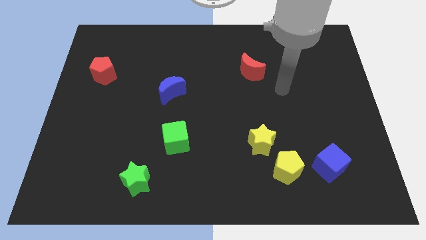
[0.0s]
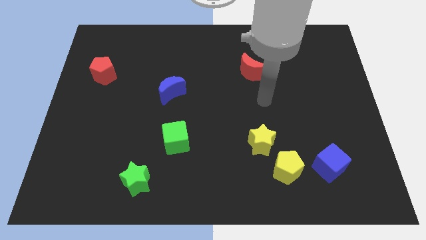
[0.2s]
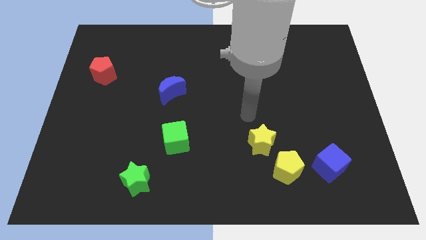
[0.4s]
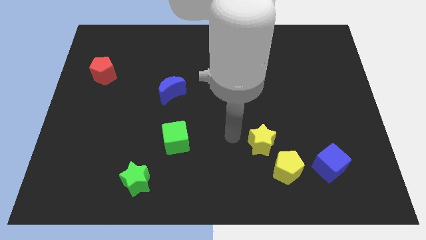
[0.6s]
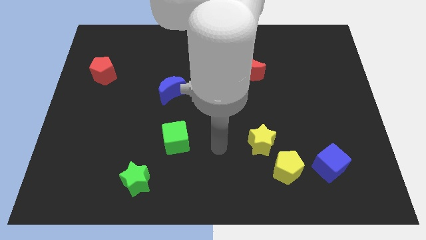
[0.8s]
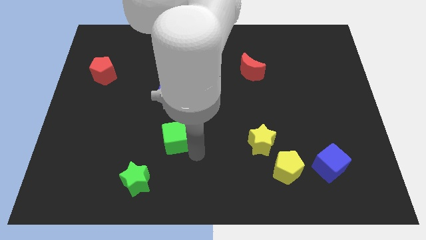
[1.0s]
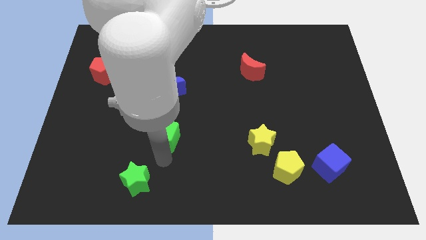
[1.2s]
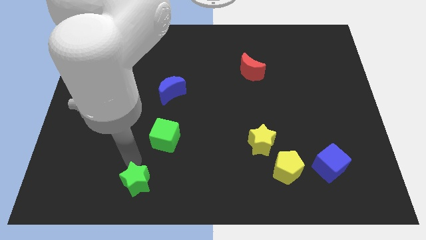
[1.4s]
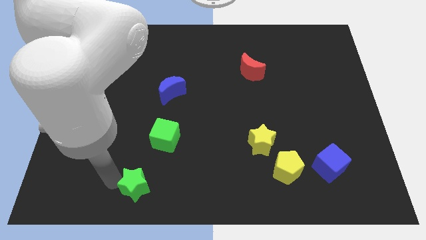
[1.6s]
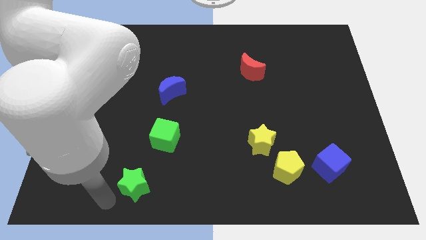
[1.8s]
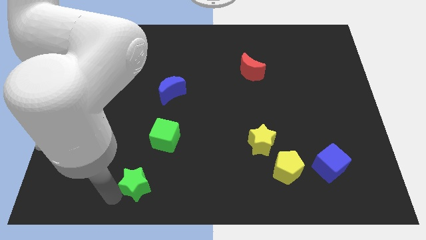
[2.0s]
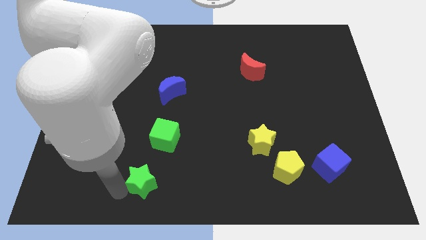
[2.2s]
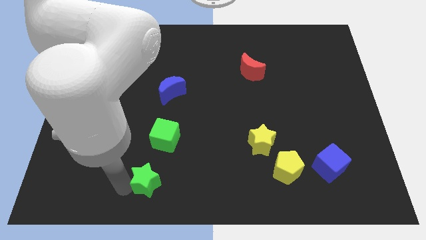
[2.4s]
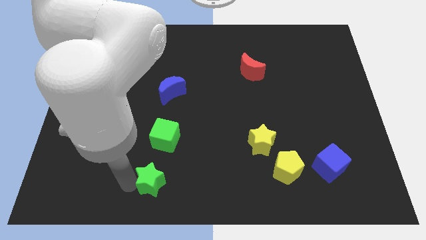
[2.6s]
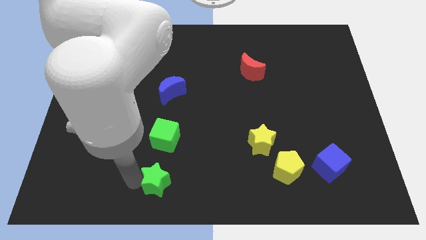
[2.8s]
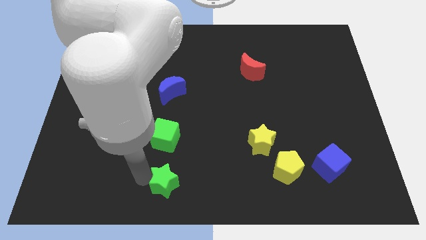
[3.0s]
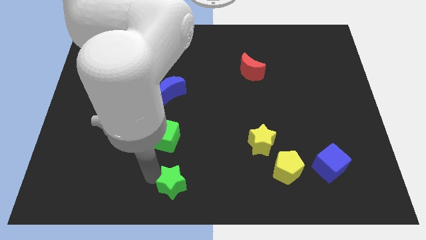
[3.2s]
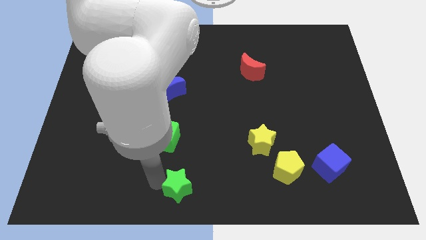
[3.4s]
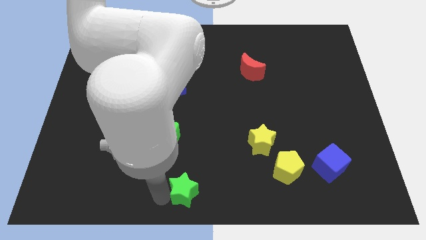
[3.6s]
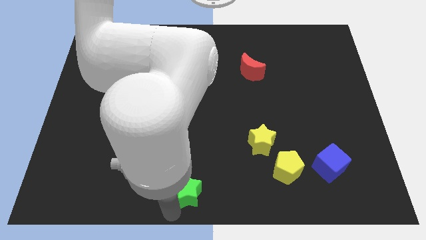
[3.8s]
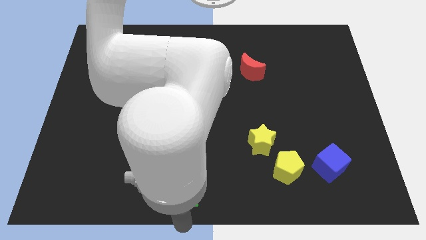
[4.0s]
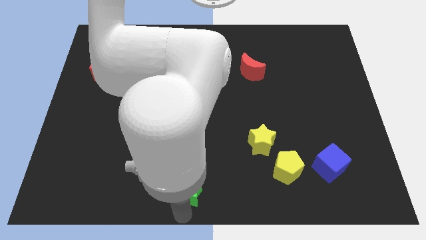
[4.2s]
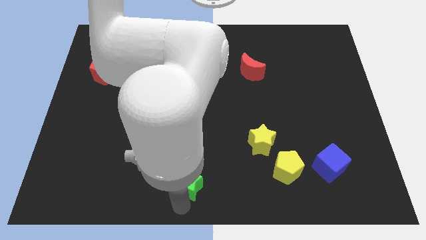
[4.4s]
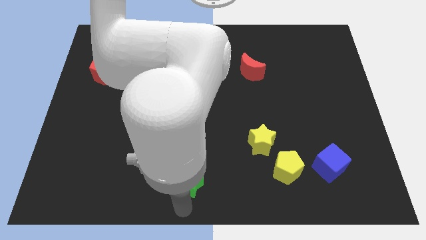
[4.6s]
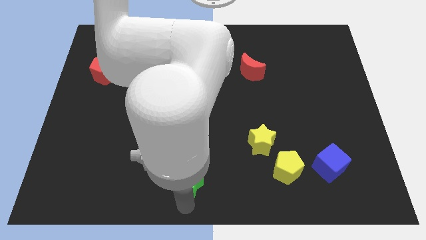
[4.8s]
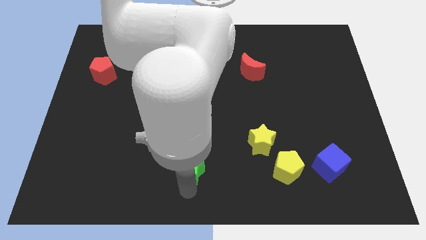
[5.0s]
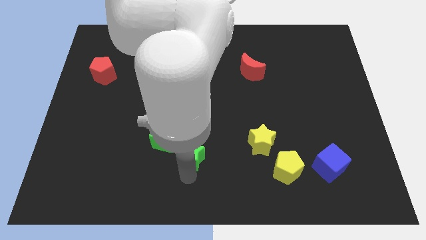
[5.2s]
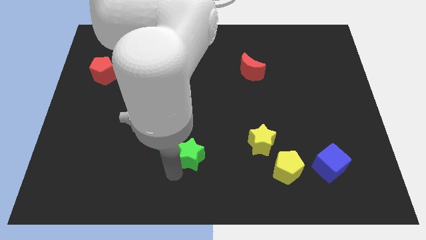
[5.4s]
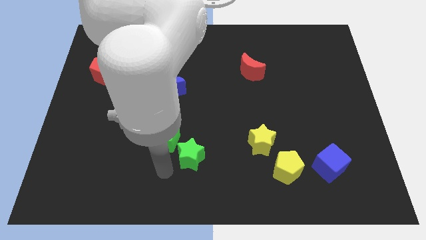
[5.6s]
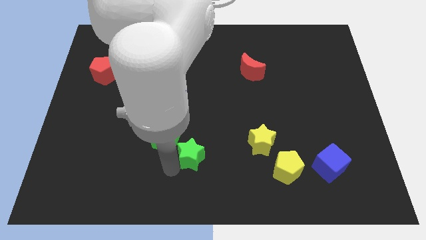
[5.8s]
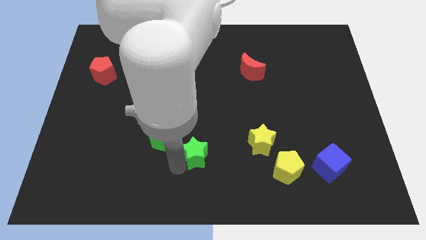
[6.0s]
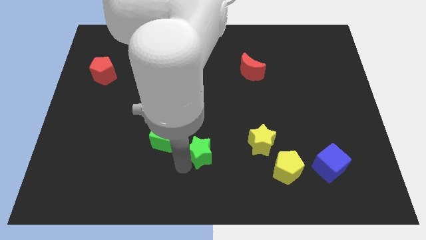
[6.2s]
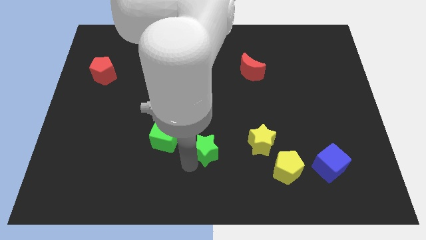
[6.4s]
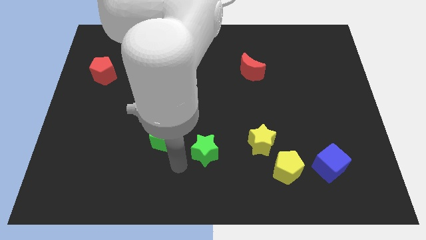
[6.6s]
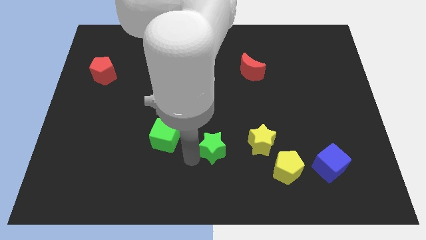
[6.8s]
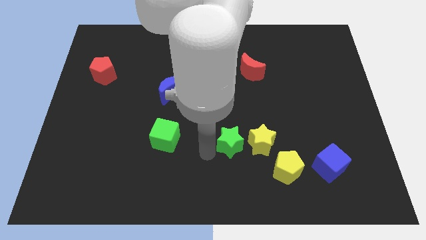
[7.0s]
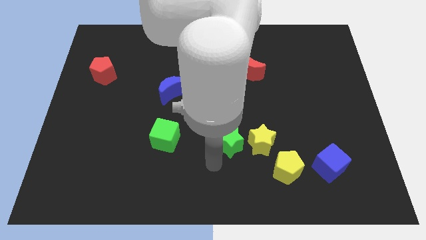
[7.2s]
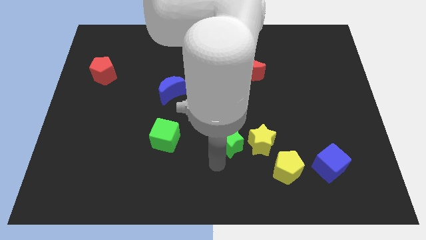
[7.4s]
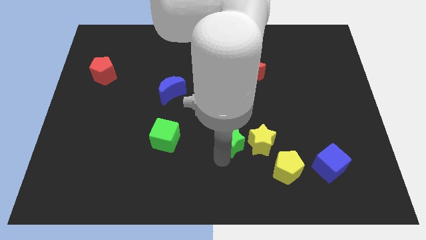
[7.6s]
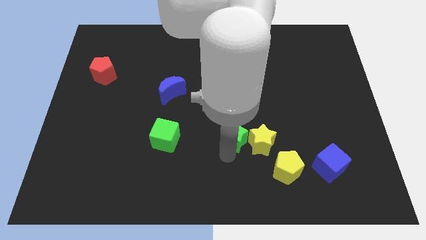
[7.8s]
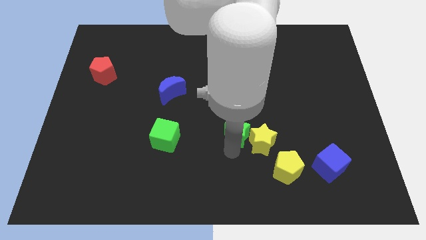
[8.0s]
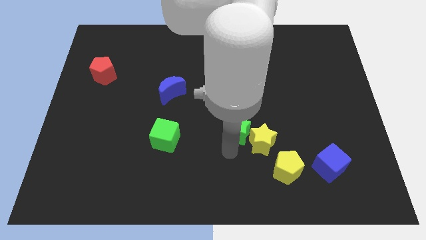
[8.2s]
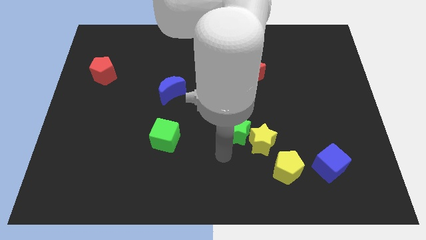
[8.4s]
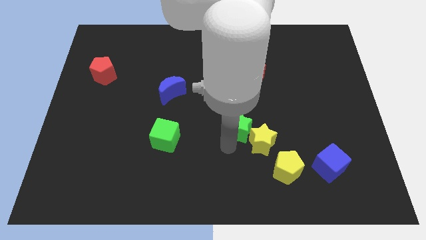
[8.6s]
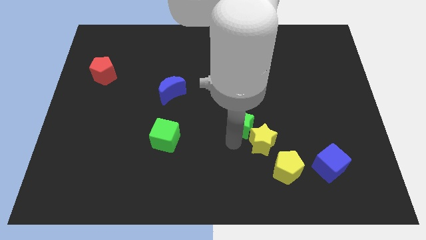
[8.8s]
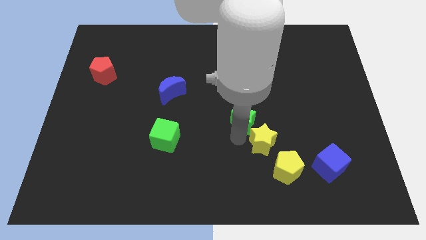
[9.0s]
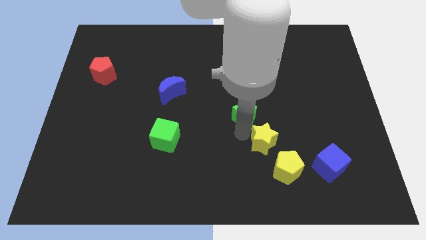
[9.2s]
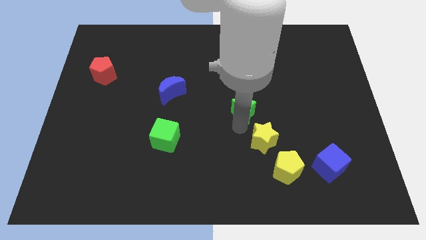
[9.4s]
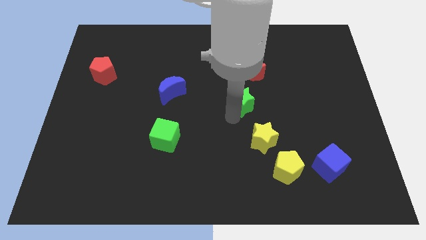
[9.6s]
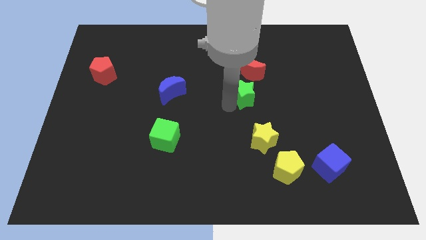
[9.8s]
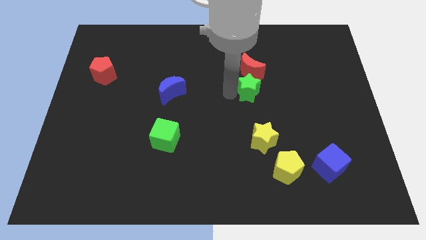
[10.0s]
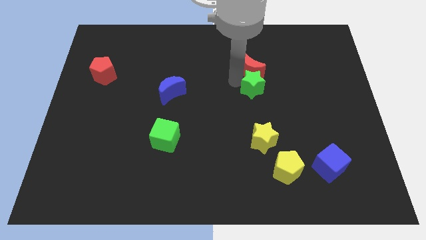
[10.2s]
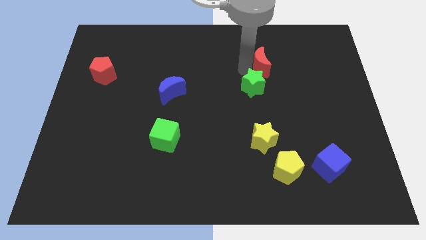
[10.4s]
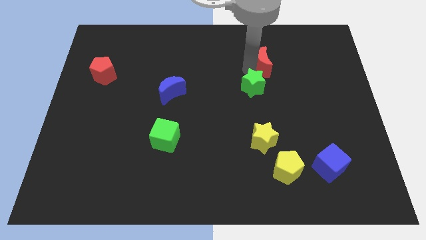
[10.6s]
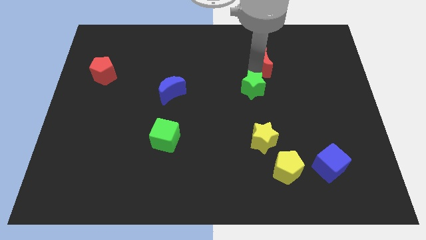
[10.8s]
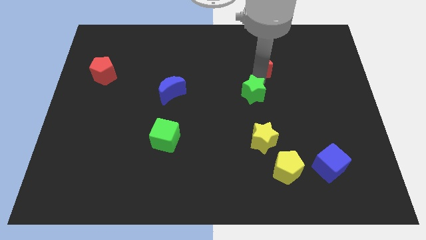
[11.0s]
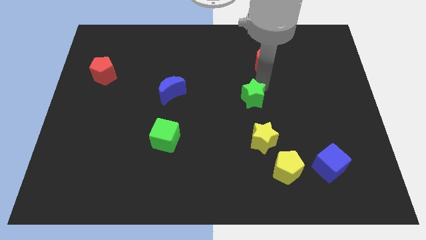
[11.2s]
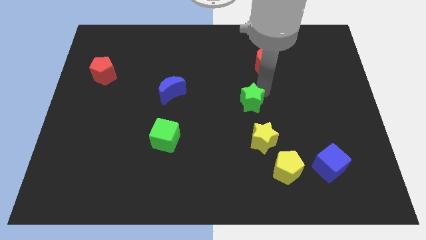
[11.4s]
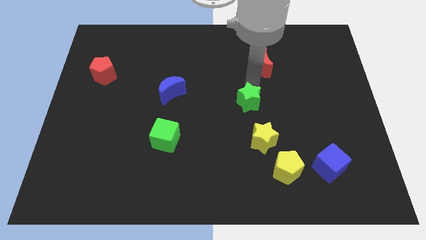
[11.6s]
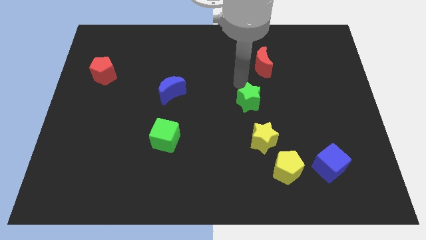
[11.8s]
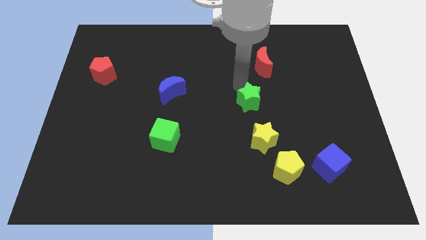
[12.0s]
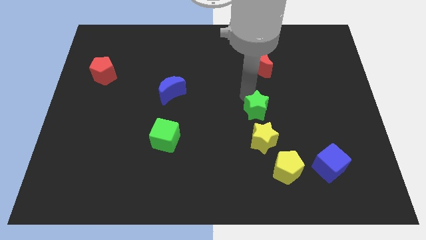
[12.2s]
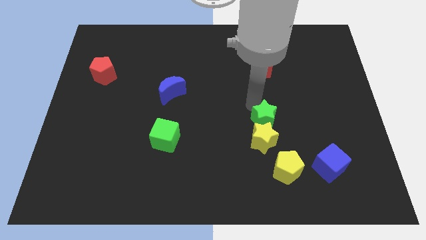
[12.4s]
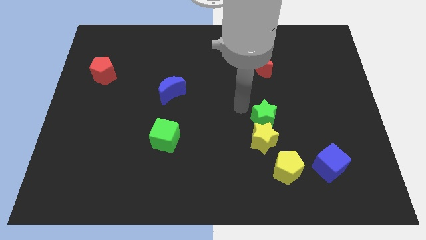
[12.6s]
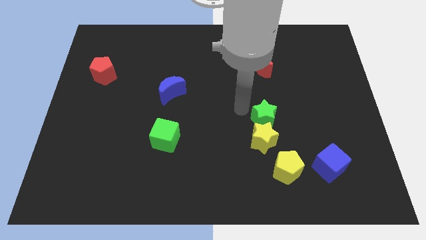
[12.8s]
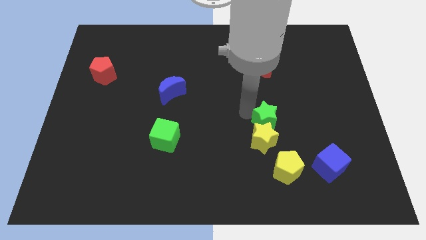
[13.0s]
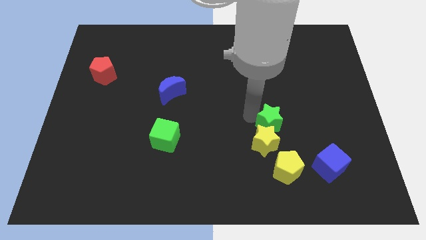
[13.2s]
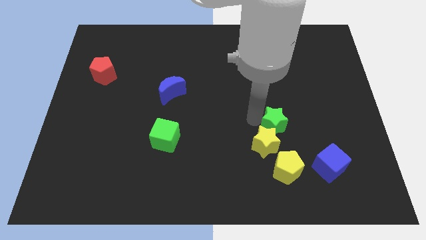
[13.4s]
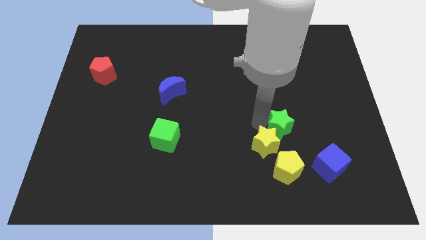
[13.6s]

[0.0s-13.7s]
put the green star to the right side of the yellow star

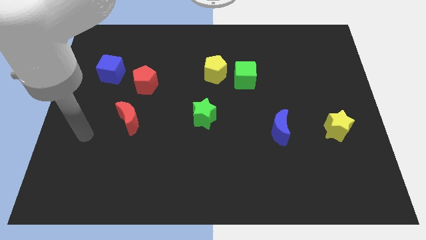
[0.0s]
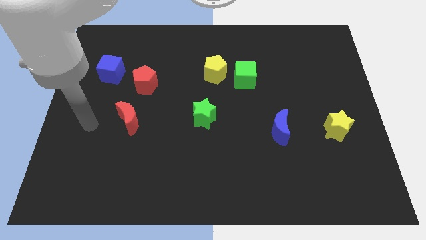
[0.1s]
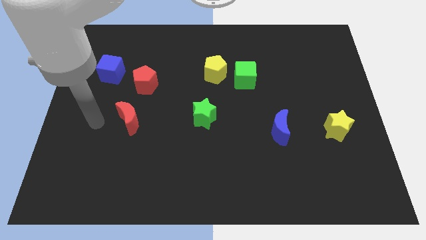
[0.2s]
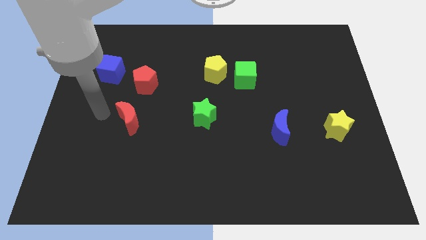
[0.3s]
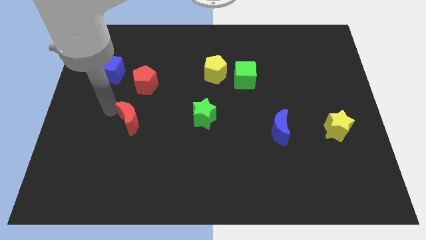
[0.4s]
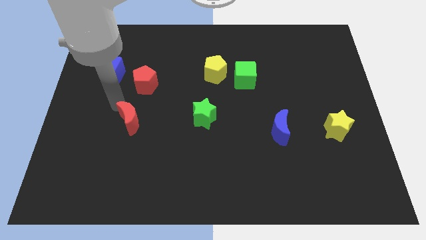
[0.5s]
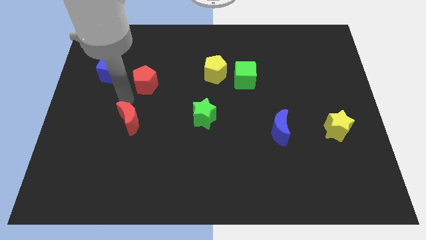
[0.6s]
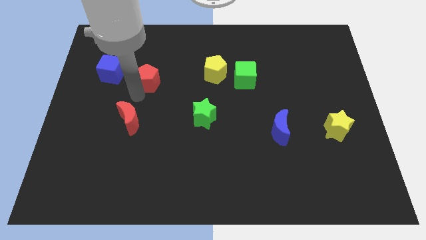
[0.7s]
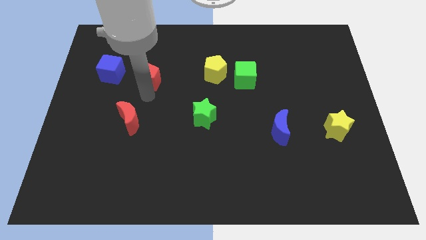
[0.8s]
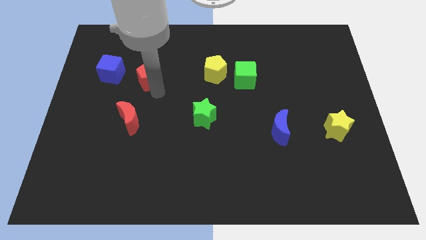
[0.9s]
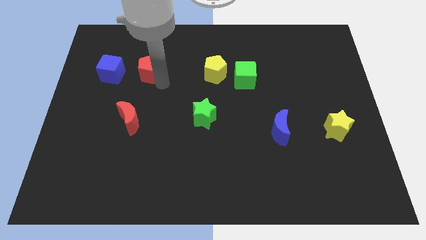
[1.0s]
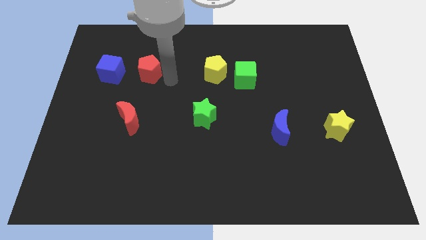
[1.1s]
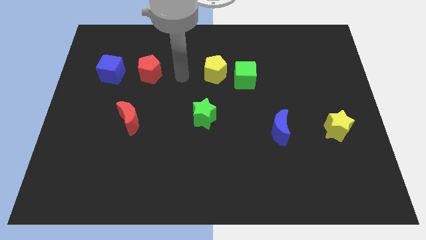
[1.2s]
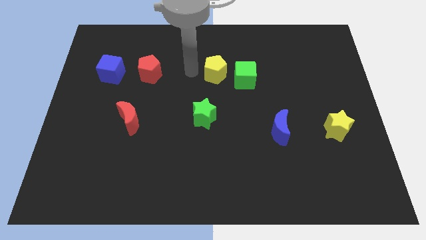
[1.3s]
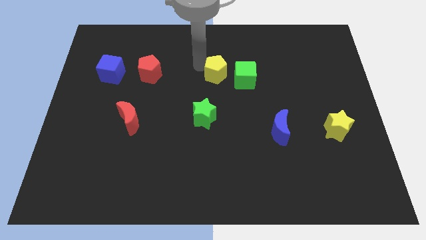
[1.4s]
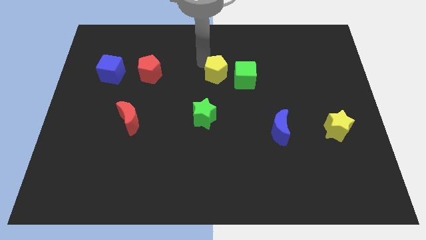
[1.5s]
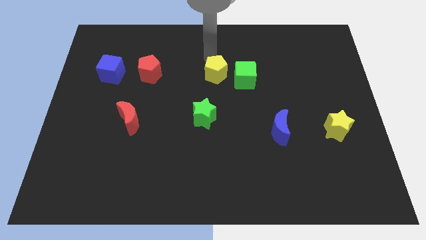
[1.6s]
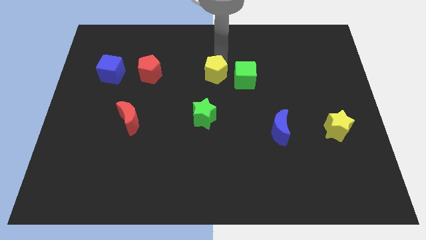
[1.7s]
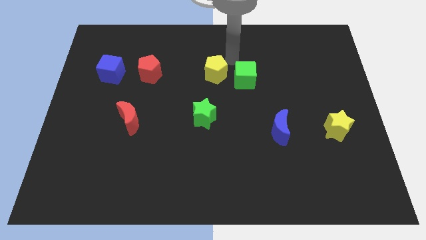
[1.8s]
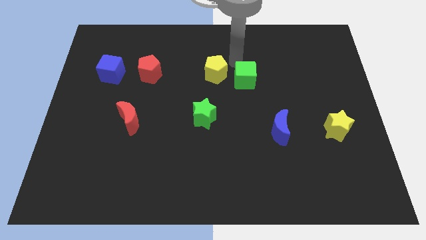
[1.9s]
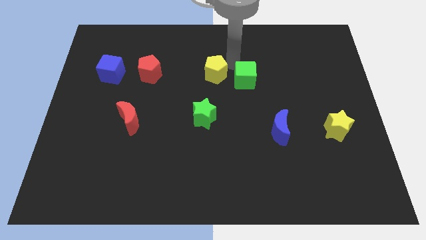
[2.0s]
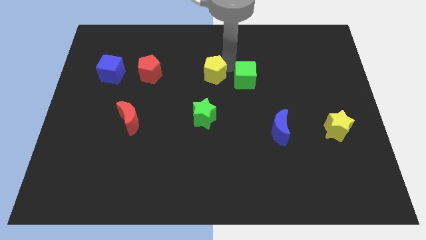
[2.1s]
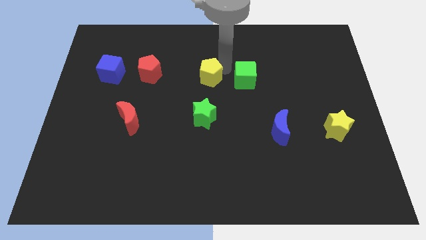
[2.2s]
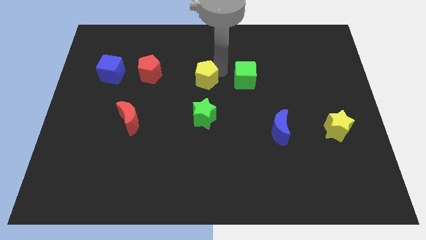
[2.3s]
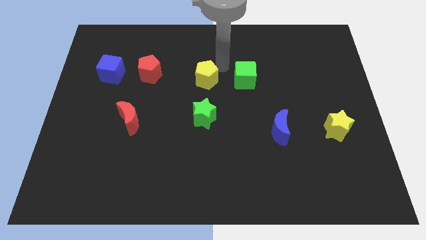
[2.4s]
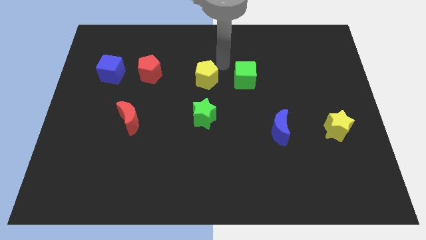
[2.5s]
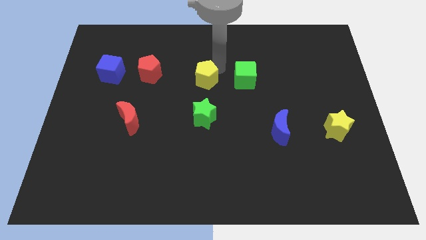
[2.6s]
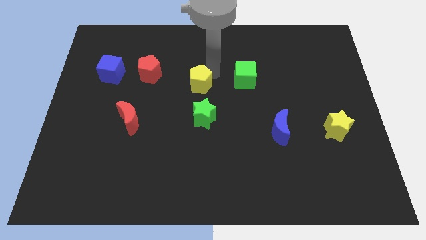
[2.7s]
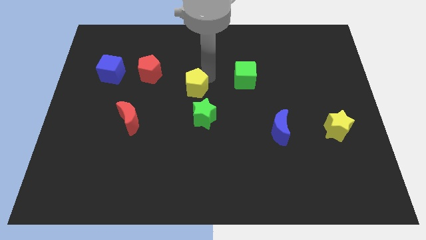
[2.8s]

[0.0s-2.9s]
push the yellow pentagon to the top left side of the green star
